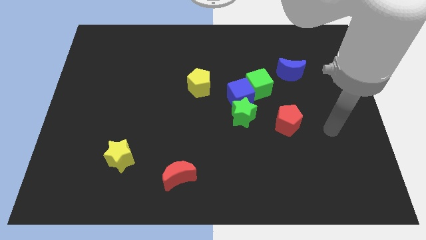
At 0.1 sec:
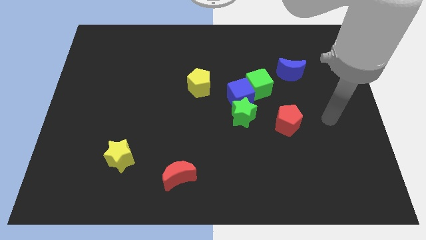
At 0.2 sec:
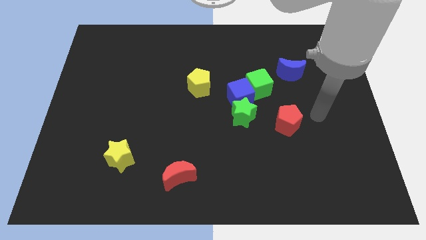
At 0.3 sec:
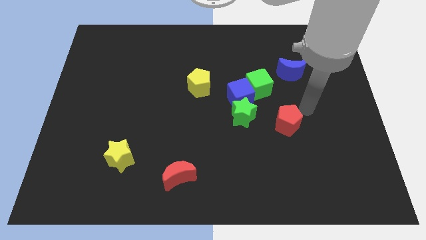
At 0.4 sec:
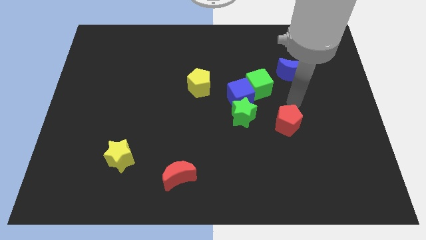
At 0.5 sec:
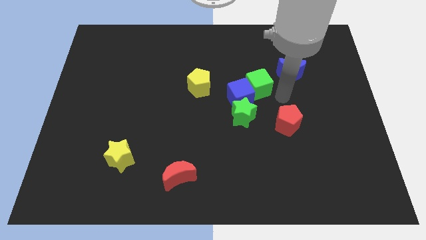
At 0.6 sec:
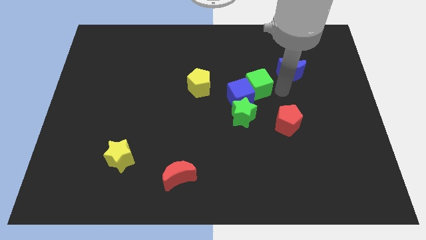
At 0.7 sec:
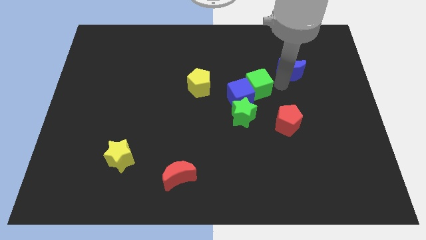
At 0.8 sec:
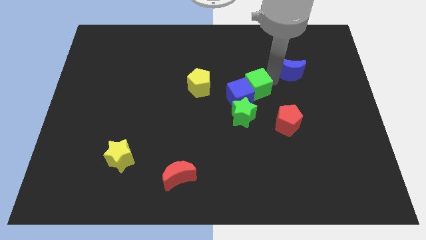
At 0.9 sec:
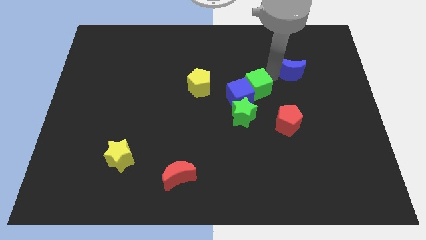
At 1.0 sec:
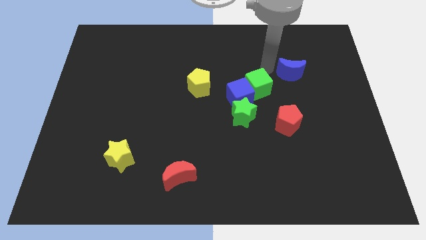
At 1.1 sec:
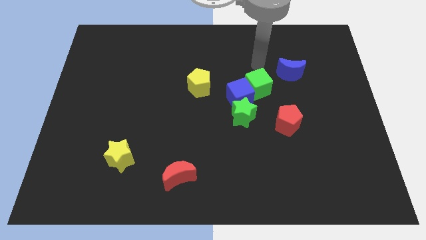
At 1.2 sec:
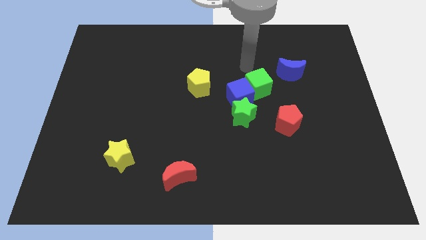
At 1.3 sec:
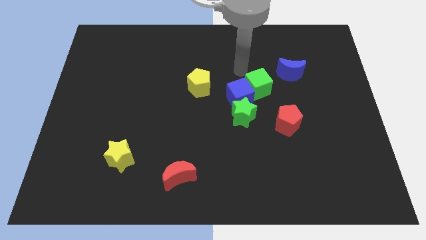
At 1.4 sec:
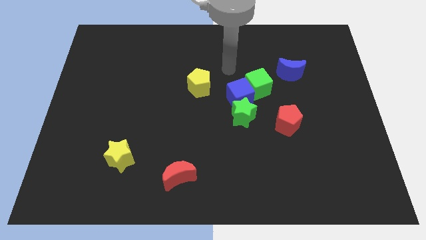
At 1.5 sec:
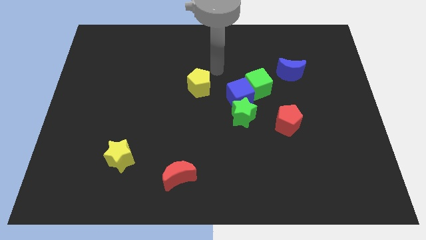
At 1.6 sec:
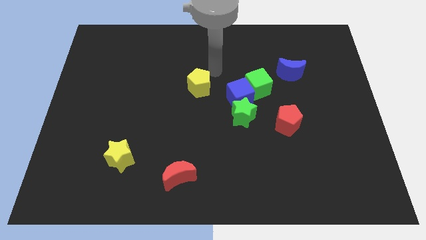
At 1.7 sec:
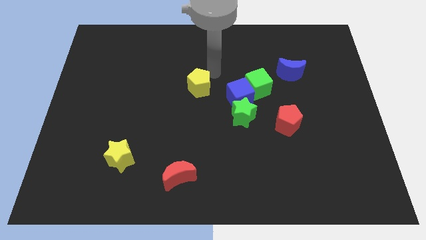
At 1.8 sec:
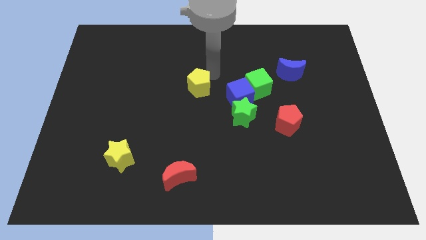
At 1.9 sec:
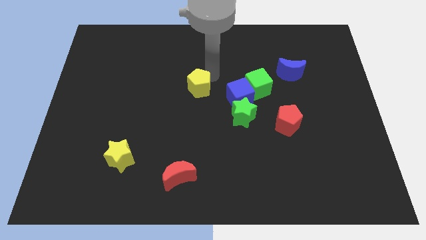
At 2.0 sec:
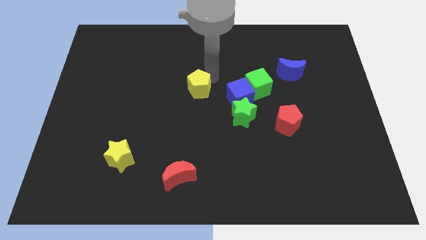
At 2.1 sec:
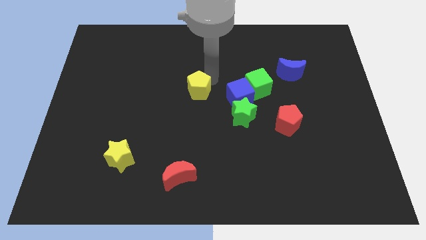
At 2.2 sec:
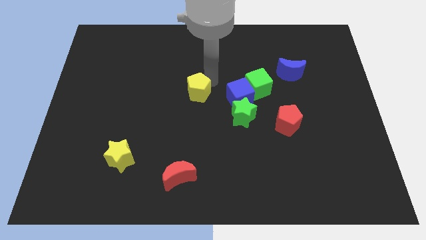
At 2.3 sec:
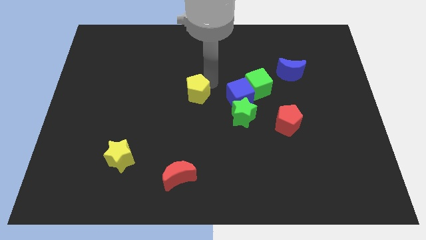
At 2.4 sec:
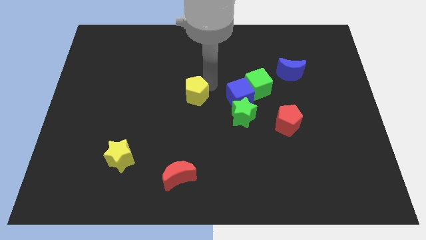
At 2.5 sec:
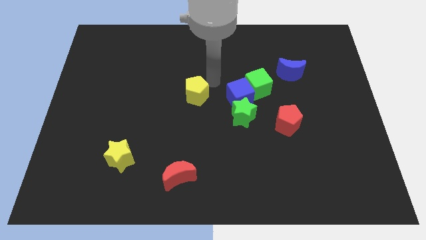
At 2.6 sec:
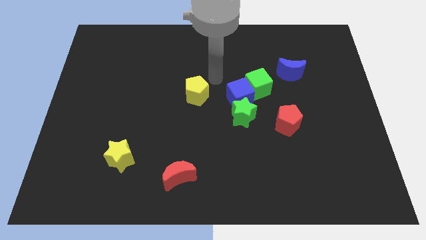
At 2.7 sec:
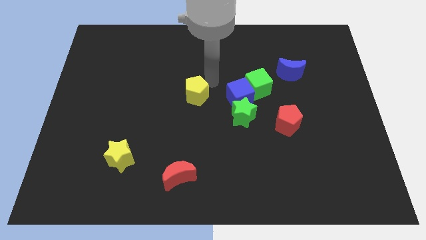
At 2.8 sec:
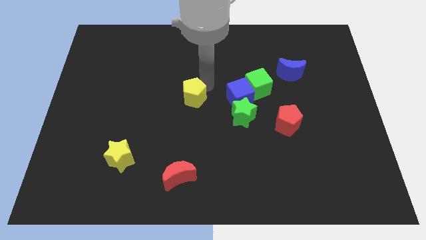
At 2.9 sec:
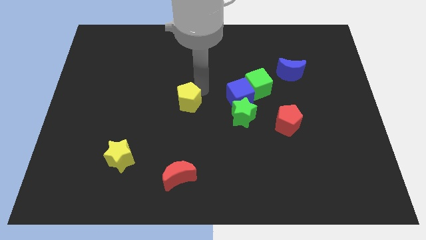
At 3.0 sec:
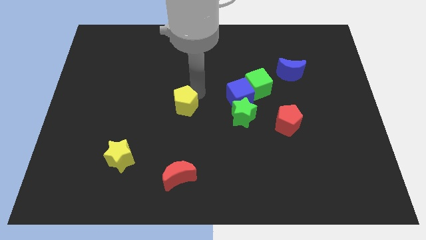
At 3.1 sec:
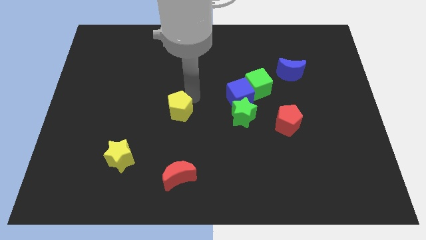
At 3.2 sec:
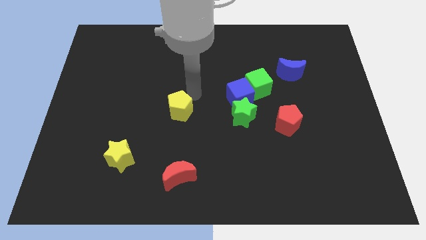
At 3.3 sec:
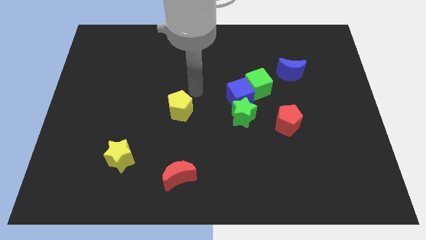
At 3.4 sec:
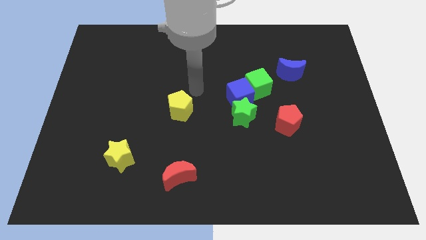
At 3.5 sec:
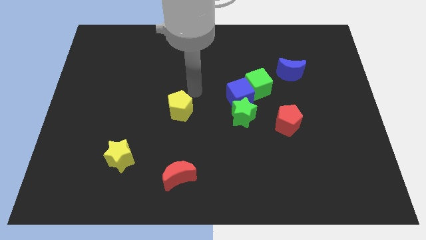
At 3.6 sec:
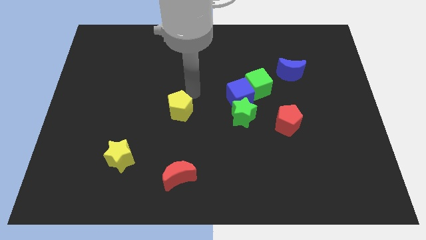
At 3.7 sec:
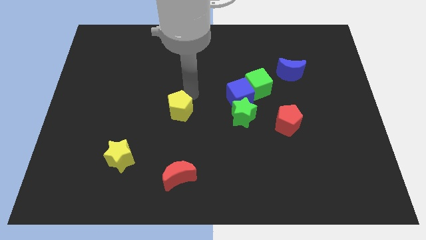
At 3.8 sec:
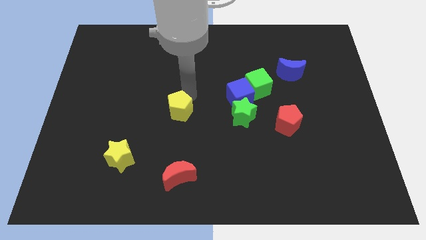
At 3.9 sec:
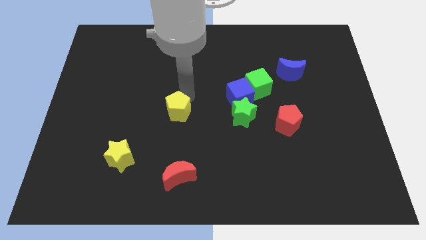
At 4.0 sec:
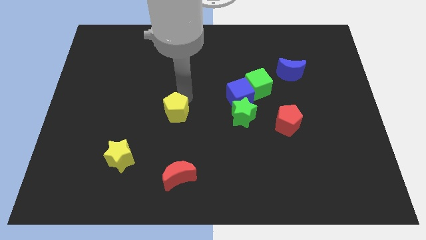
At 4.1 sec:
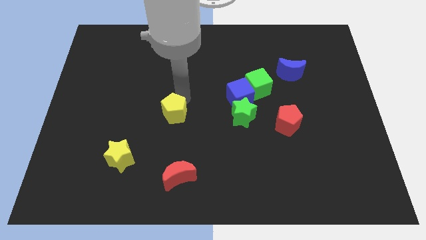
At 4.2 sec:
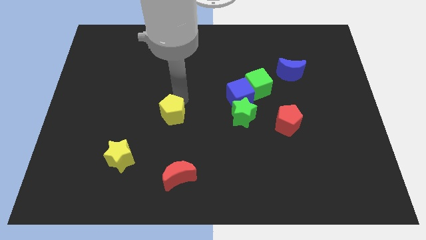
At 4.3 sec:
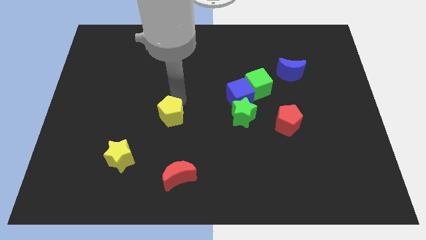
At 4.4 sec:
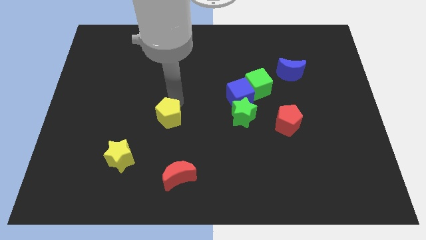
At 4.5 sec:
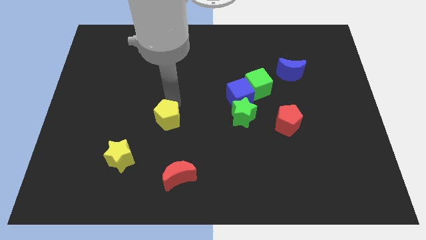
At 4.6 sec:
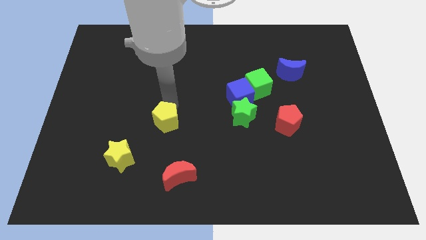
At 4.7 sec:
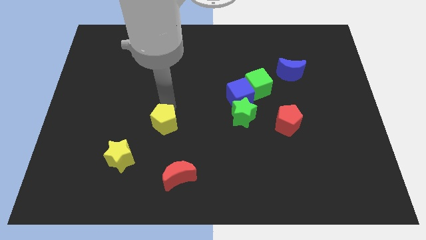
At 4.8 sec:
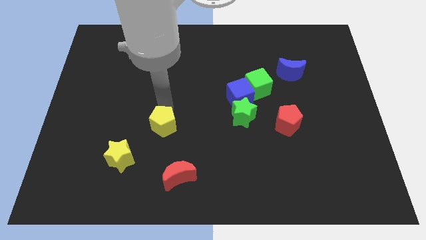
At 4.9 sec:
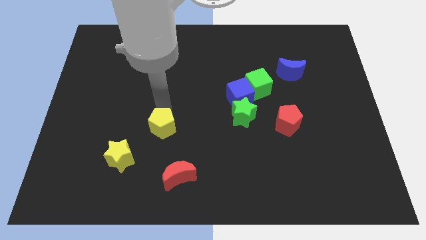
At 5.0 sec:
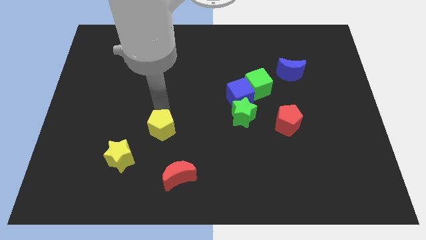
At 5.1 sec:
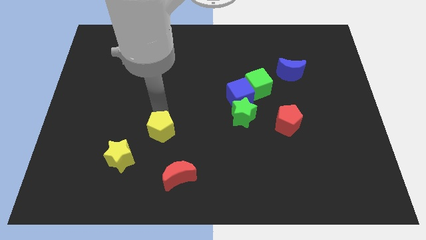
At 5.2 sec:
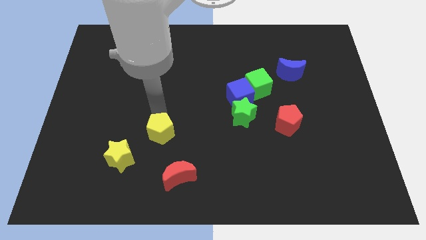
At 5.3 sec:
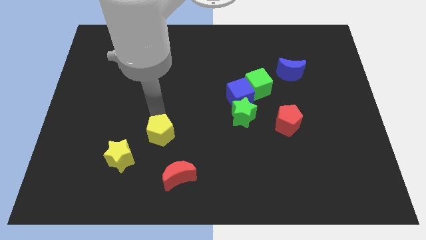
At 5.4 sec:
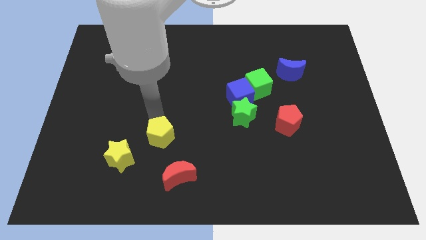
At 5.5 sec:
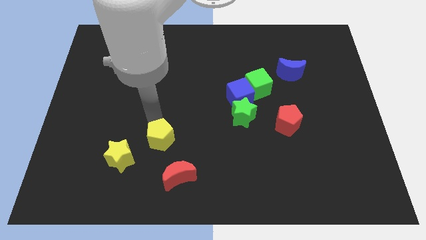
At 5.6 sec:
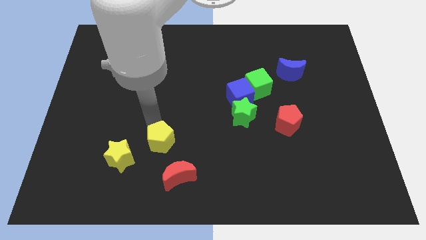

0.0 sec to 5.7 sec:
put the yellow pentagon to the right of the yellow star

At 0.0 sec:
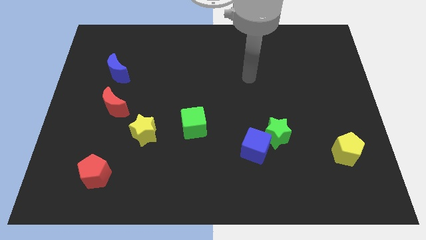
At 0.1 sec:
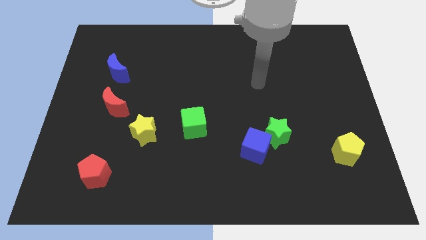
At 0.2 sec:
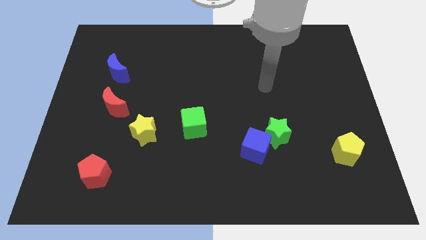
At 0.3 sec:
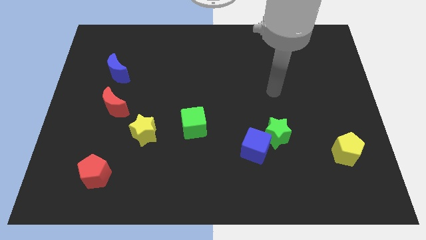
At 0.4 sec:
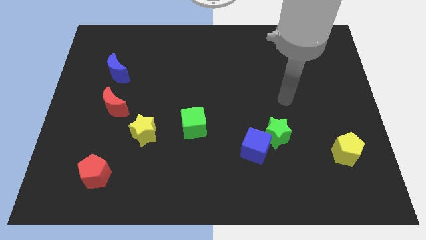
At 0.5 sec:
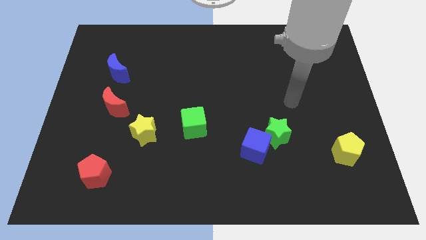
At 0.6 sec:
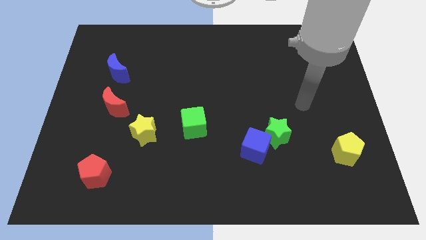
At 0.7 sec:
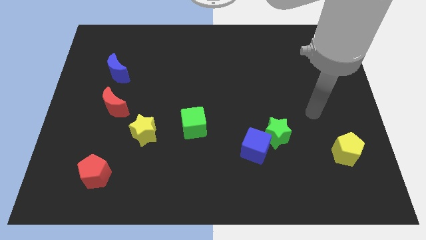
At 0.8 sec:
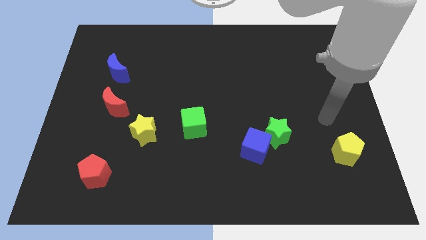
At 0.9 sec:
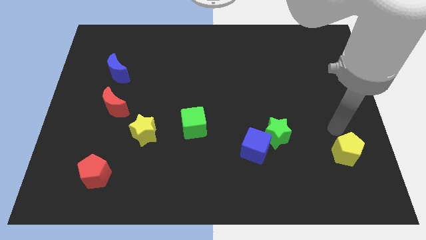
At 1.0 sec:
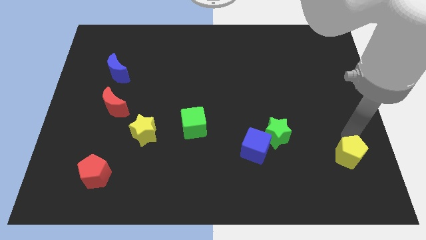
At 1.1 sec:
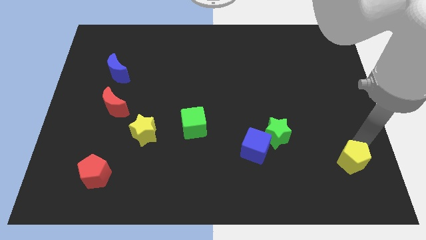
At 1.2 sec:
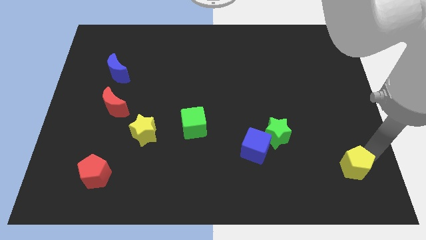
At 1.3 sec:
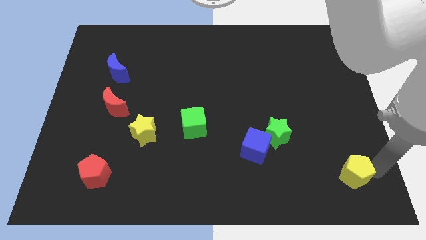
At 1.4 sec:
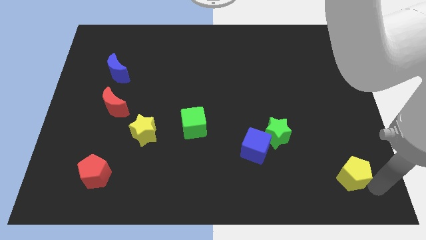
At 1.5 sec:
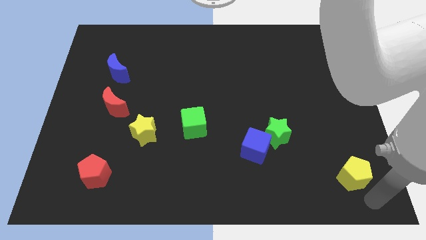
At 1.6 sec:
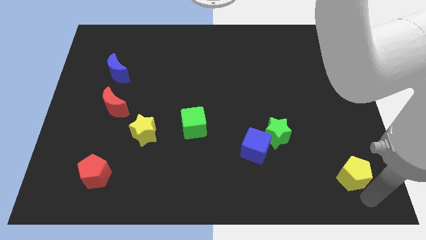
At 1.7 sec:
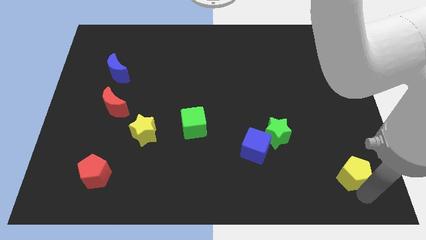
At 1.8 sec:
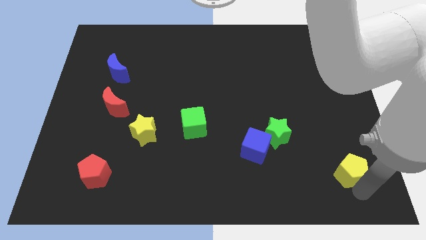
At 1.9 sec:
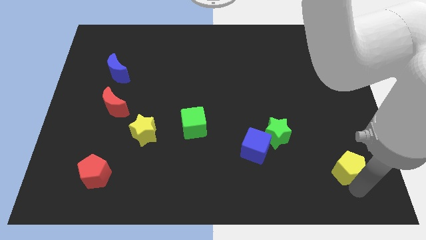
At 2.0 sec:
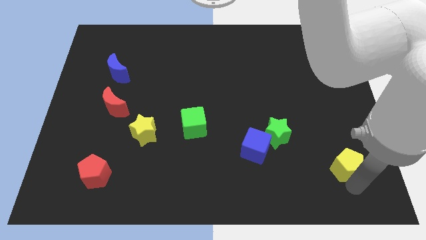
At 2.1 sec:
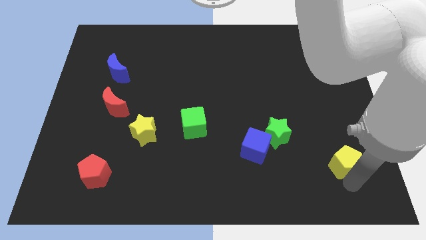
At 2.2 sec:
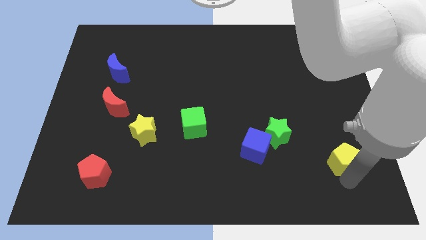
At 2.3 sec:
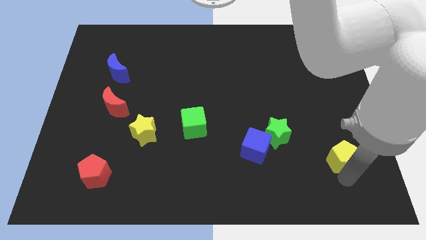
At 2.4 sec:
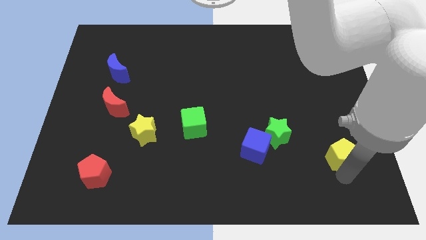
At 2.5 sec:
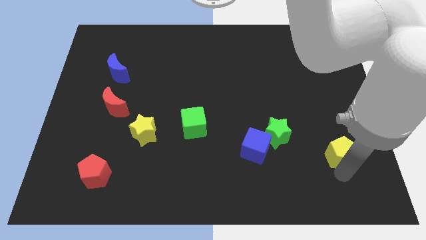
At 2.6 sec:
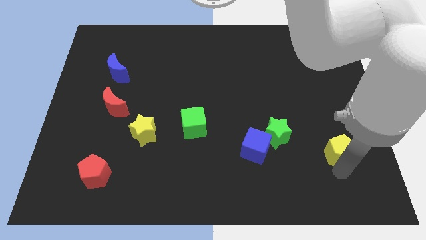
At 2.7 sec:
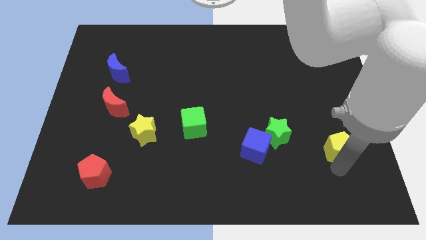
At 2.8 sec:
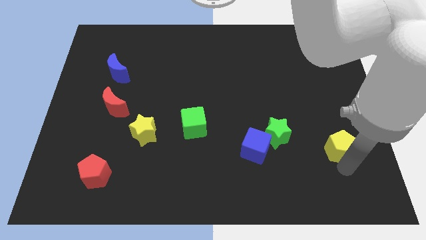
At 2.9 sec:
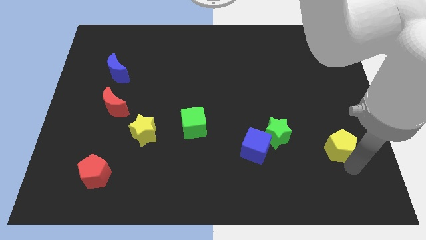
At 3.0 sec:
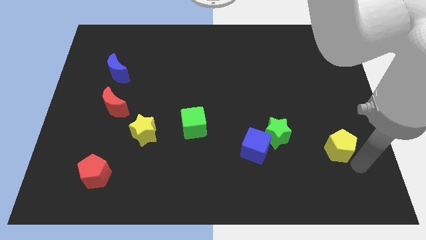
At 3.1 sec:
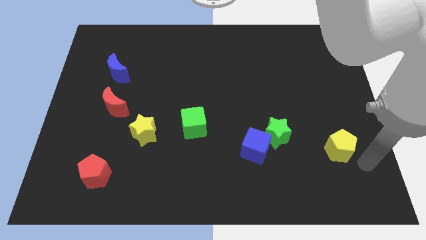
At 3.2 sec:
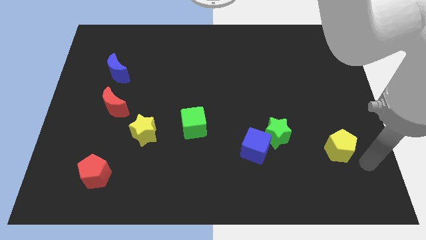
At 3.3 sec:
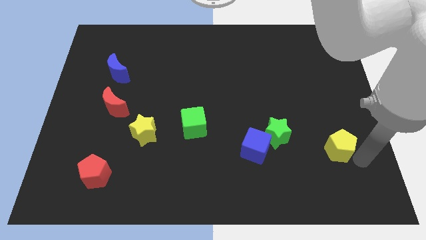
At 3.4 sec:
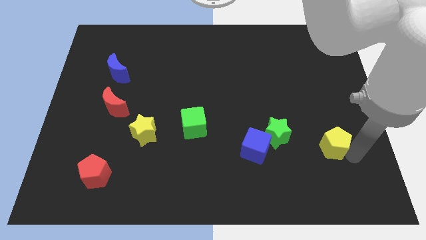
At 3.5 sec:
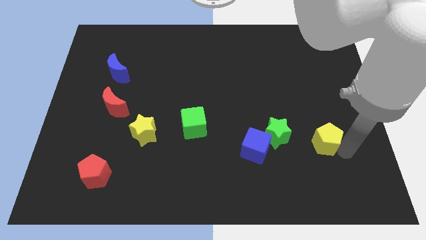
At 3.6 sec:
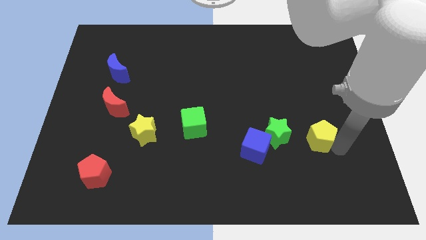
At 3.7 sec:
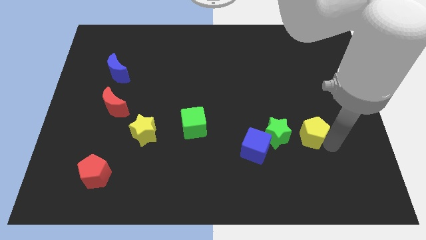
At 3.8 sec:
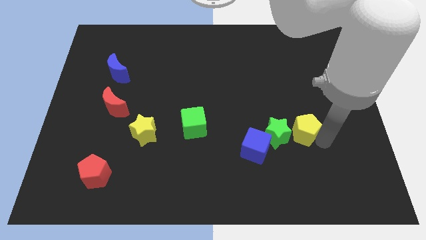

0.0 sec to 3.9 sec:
slide the yellow pentagon to the top right of the green star
